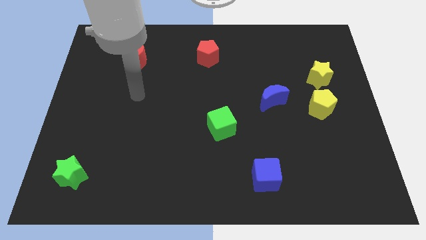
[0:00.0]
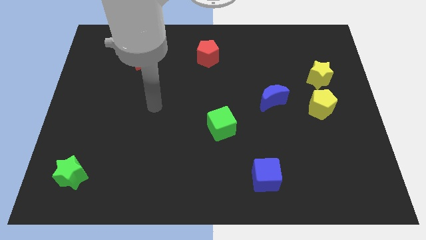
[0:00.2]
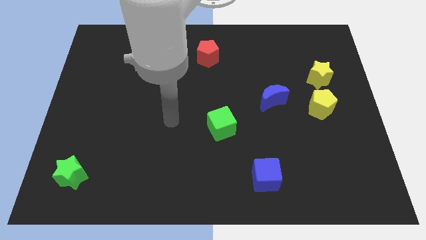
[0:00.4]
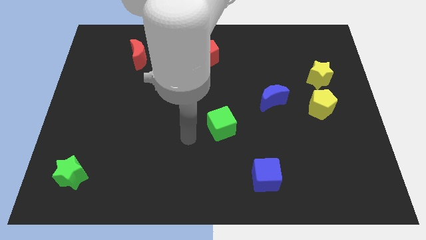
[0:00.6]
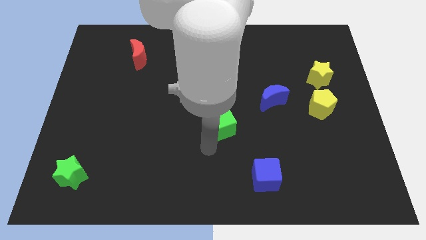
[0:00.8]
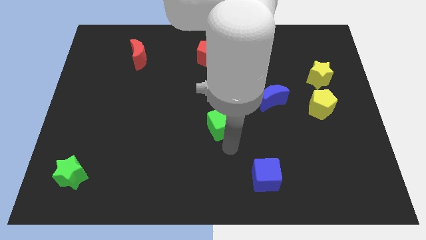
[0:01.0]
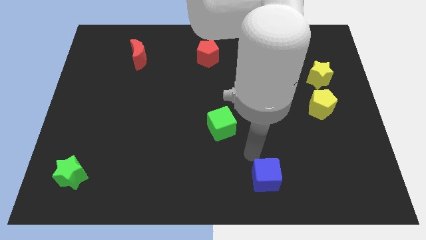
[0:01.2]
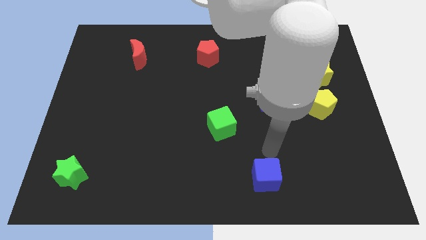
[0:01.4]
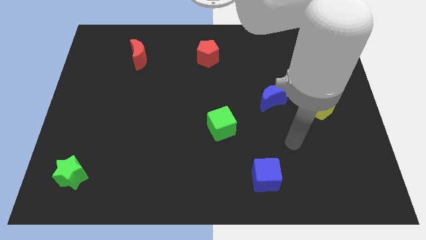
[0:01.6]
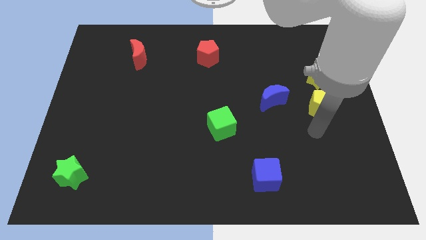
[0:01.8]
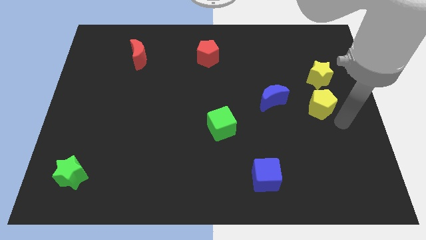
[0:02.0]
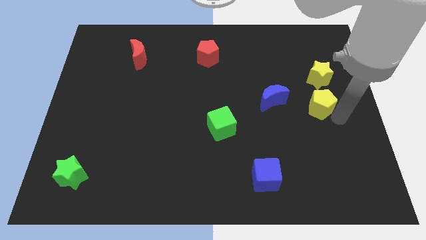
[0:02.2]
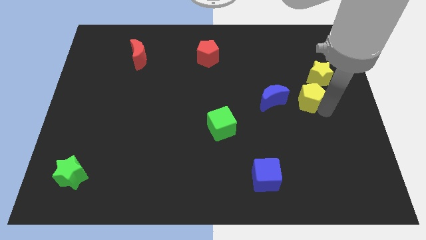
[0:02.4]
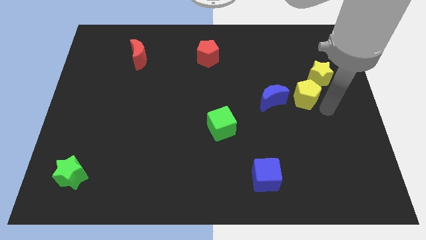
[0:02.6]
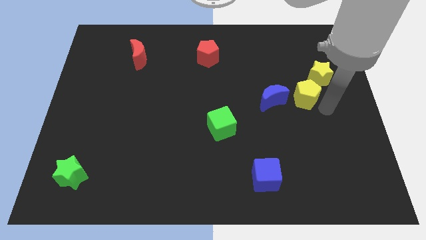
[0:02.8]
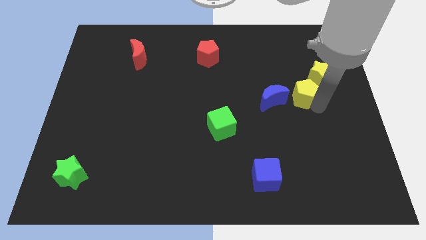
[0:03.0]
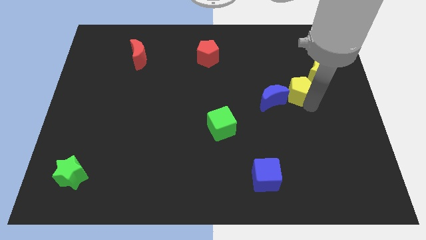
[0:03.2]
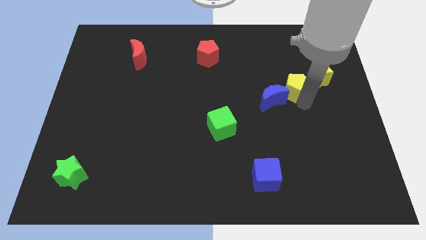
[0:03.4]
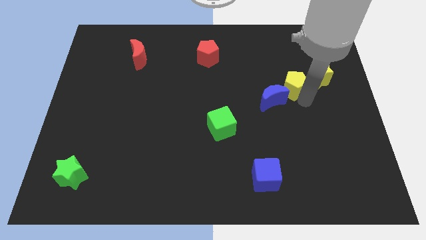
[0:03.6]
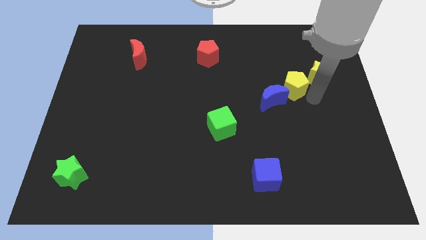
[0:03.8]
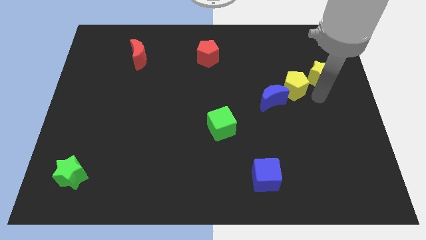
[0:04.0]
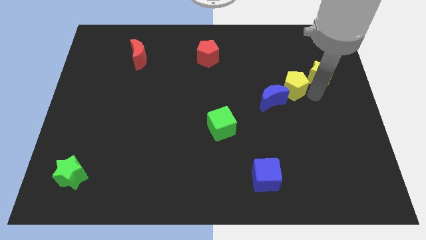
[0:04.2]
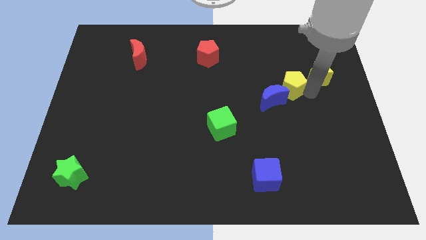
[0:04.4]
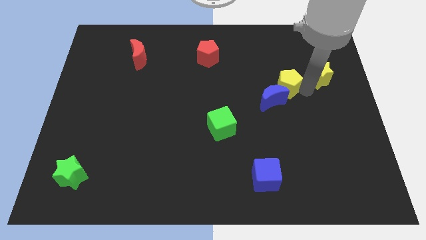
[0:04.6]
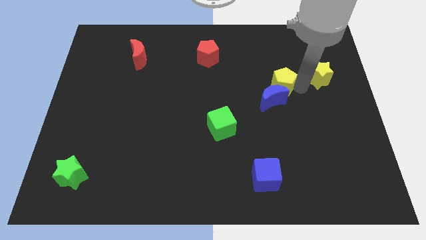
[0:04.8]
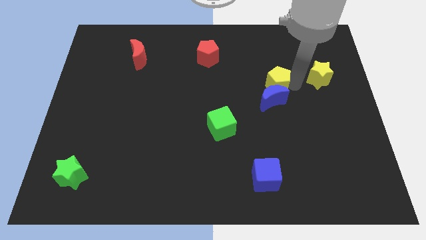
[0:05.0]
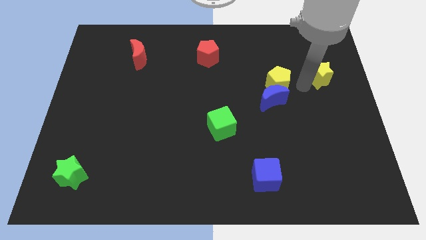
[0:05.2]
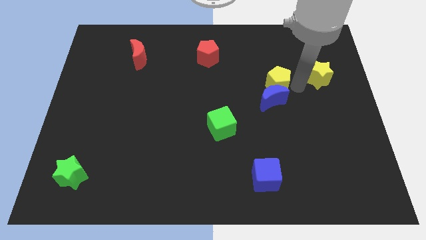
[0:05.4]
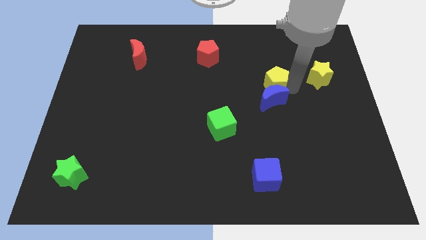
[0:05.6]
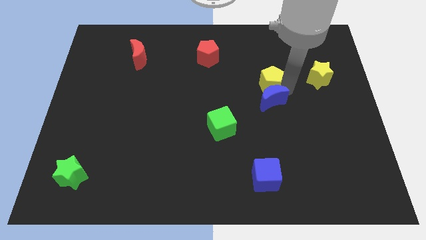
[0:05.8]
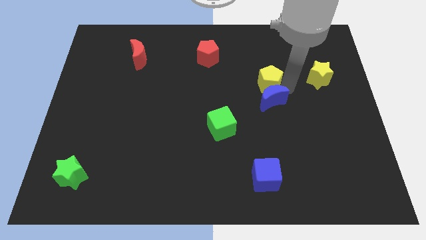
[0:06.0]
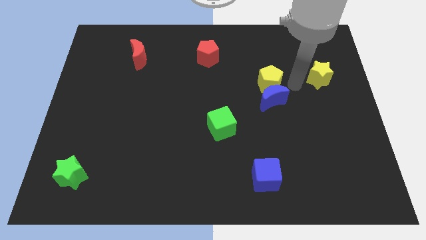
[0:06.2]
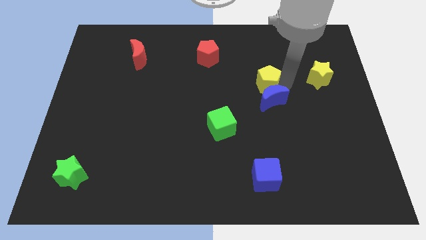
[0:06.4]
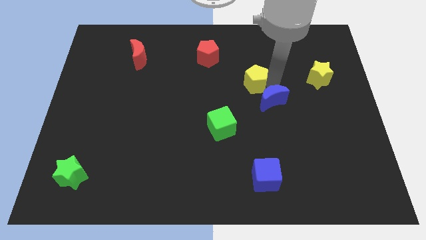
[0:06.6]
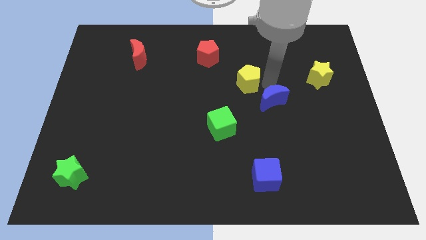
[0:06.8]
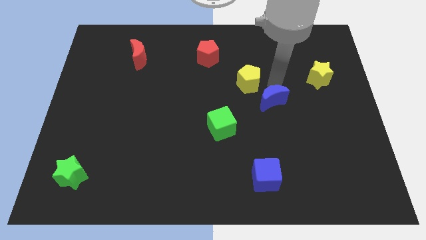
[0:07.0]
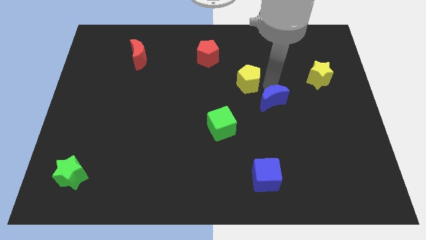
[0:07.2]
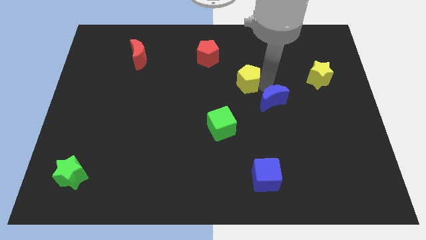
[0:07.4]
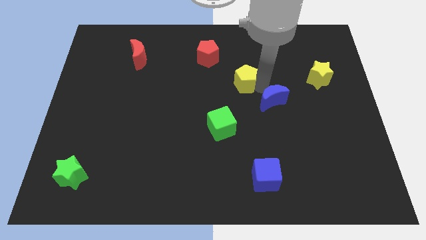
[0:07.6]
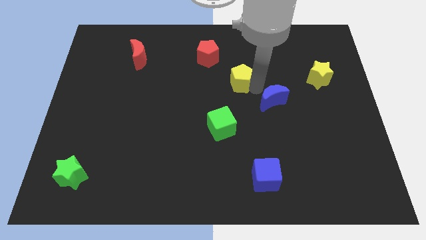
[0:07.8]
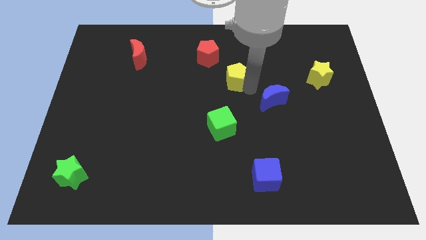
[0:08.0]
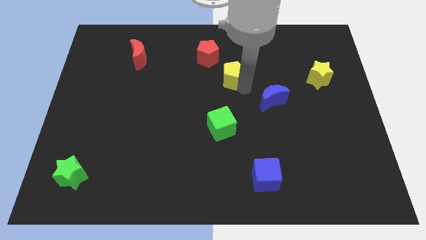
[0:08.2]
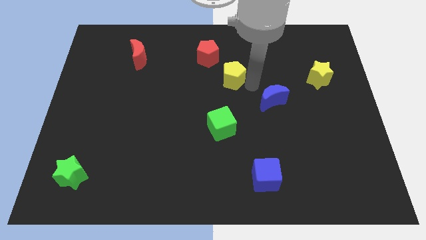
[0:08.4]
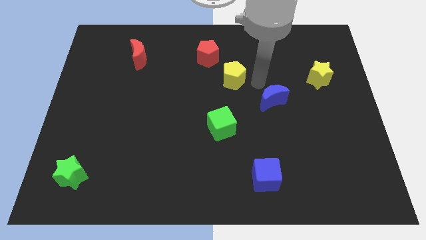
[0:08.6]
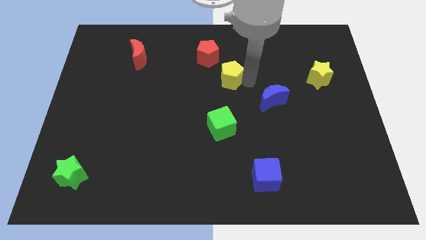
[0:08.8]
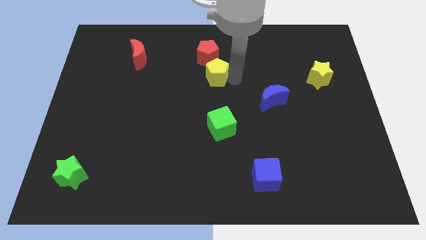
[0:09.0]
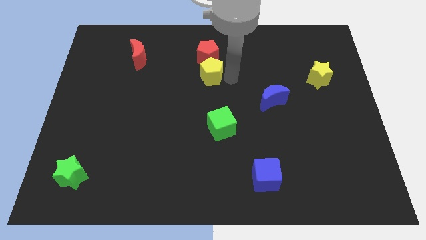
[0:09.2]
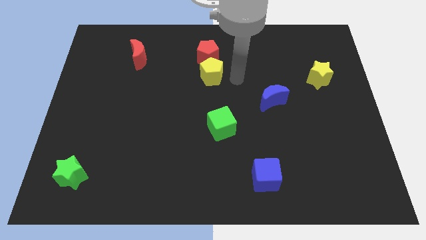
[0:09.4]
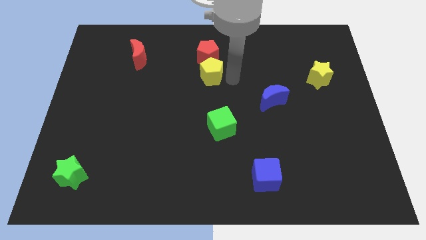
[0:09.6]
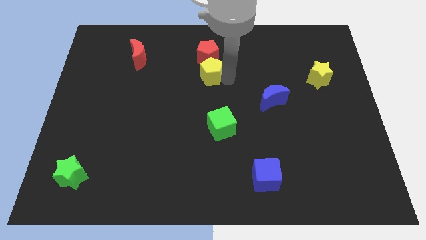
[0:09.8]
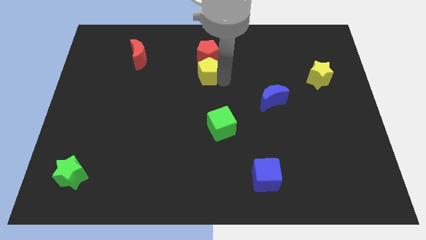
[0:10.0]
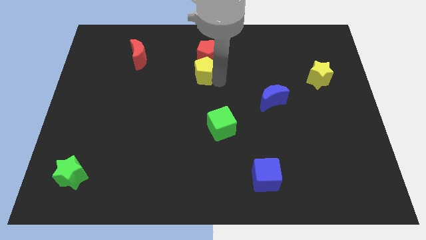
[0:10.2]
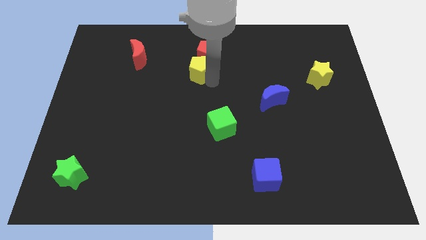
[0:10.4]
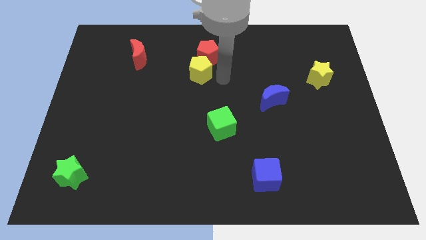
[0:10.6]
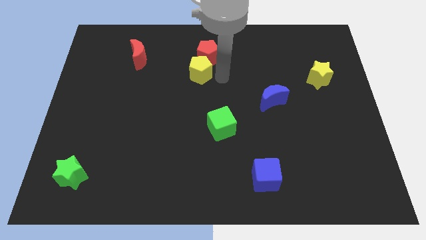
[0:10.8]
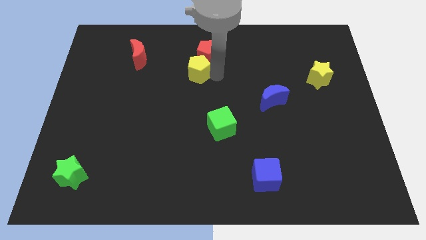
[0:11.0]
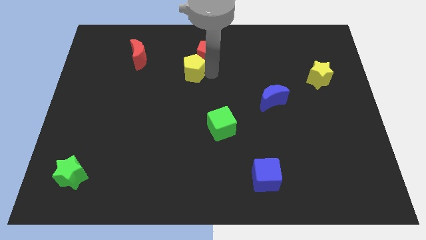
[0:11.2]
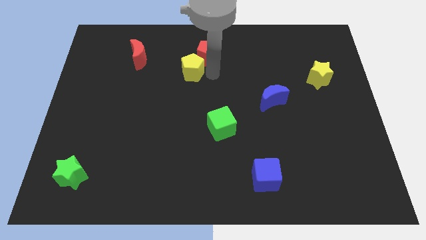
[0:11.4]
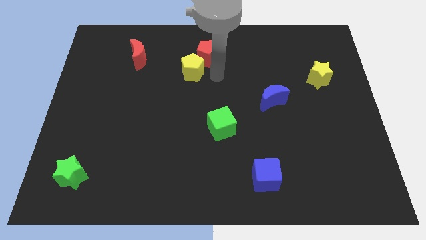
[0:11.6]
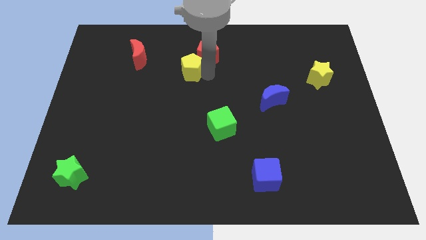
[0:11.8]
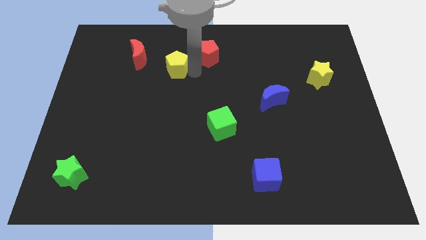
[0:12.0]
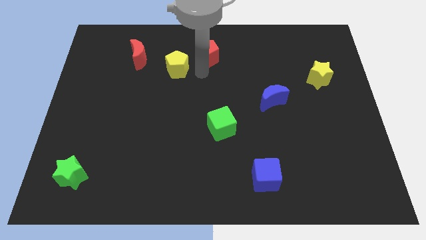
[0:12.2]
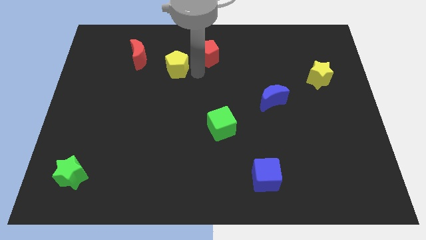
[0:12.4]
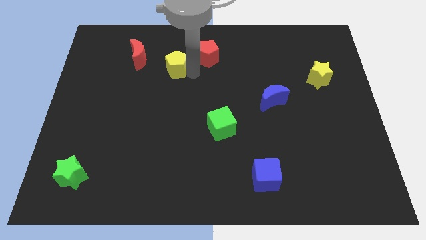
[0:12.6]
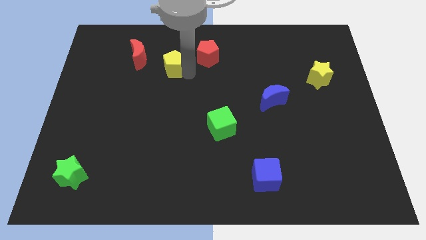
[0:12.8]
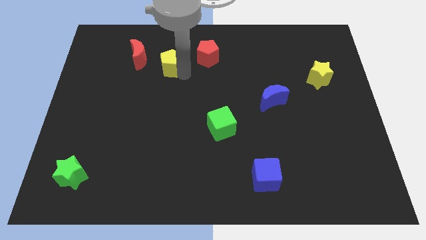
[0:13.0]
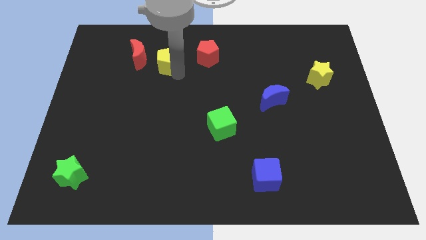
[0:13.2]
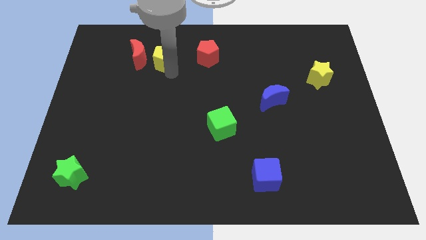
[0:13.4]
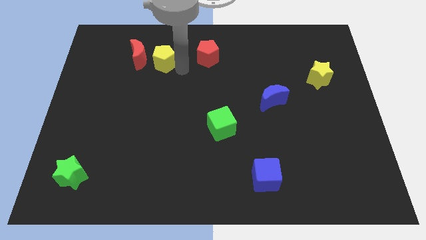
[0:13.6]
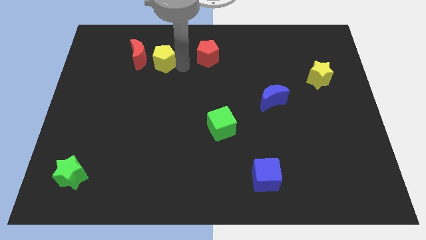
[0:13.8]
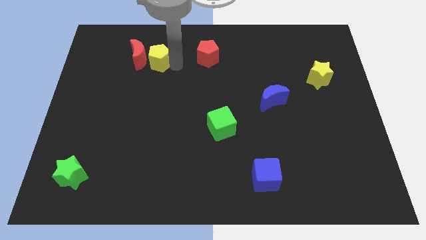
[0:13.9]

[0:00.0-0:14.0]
move the yellow pentagon next to the red moon
